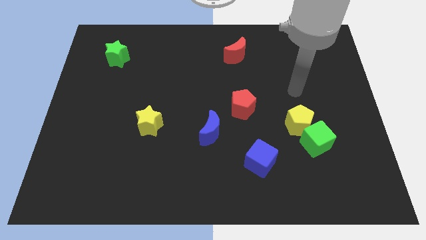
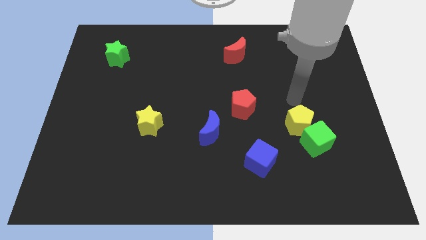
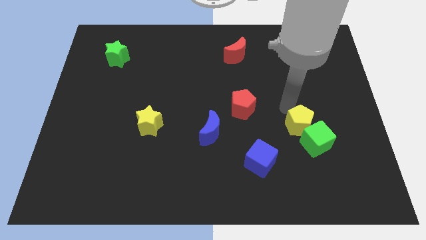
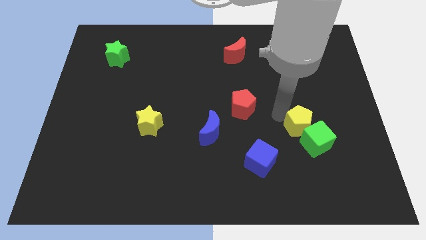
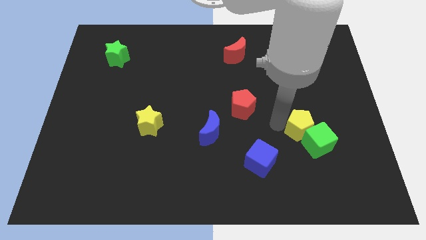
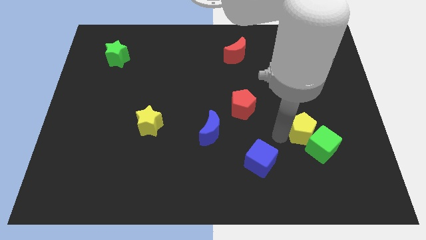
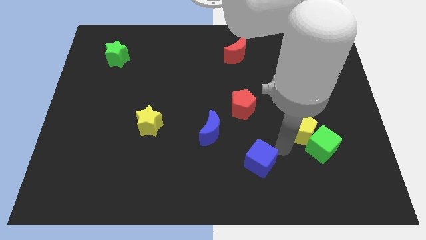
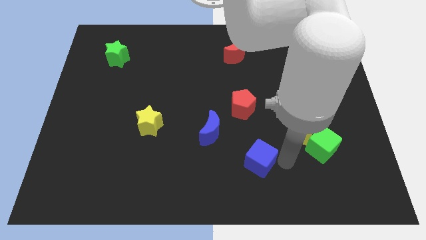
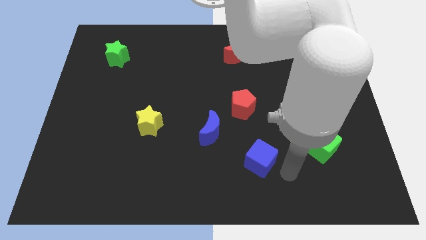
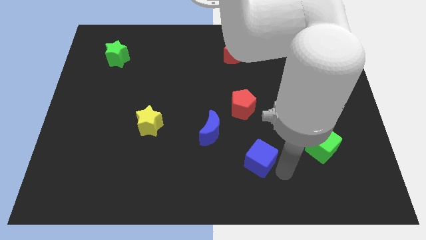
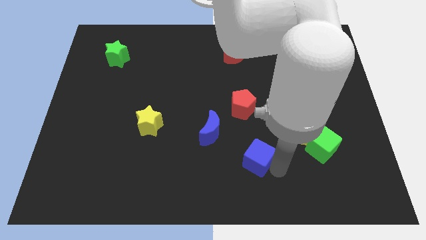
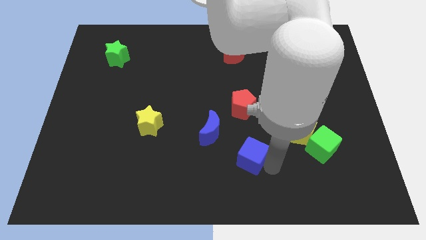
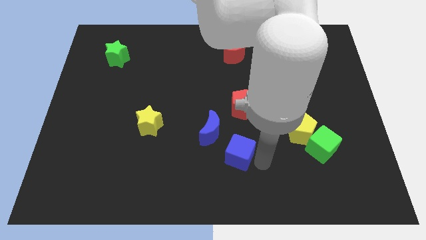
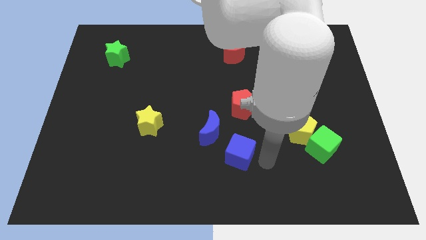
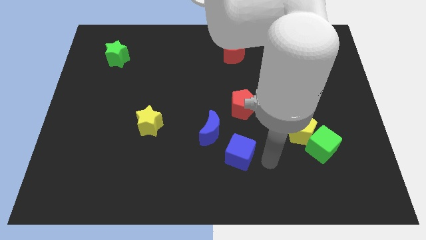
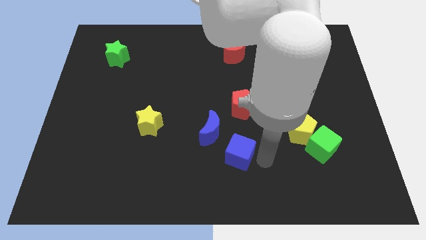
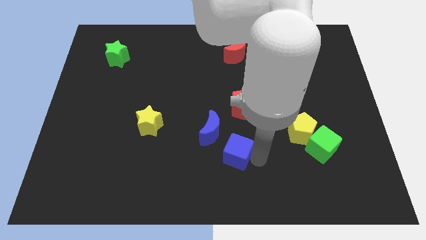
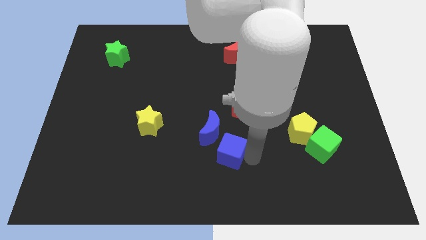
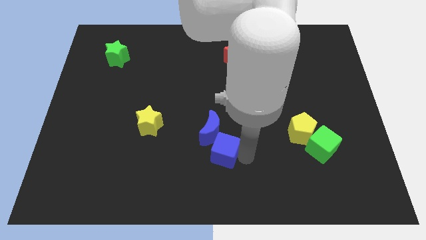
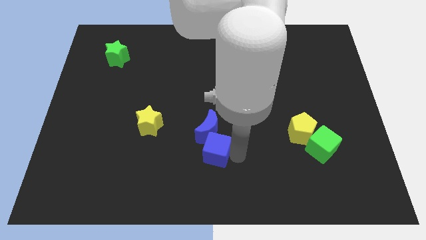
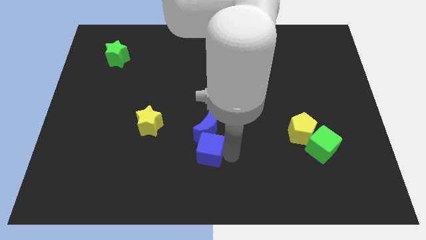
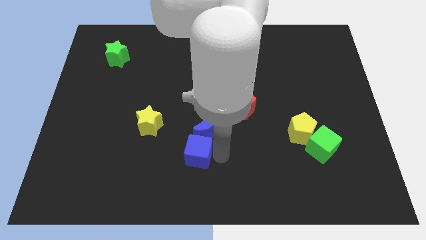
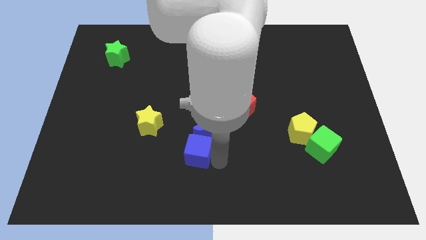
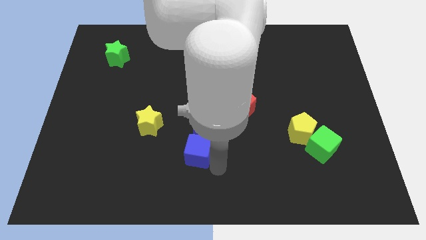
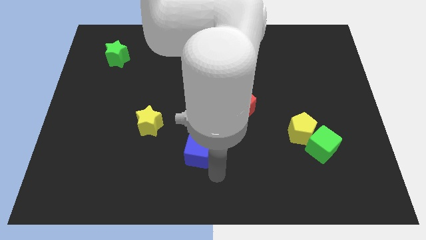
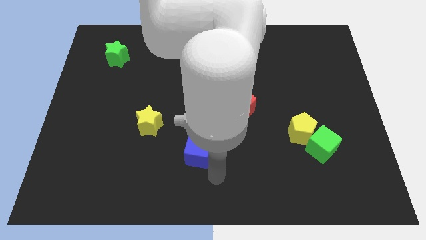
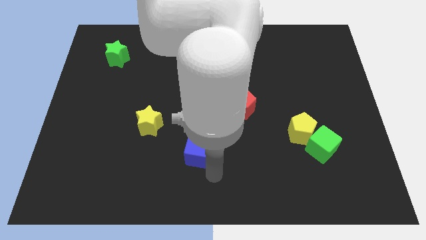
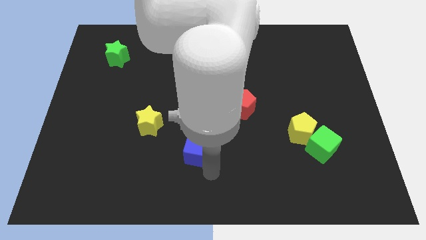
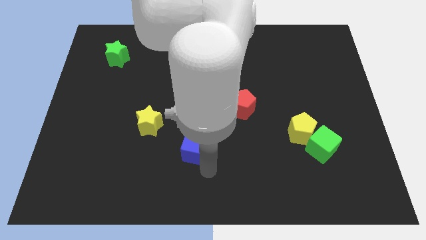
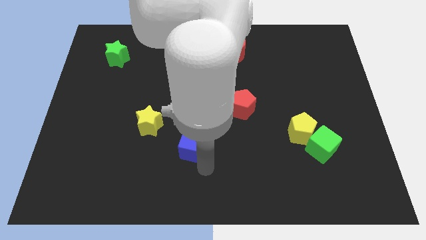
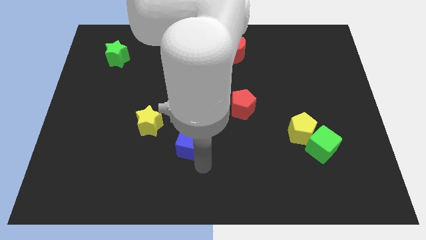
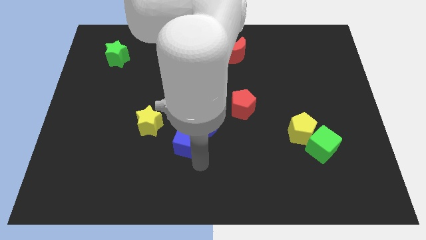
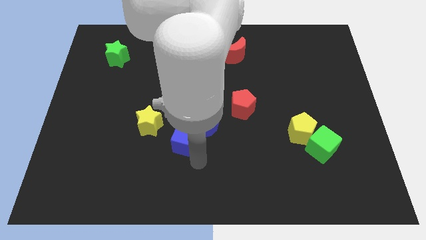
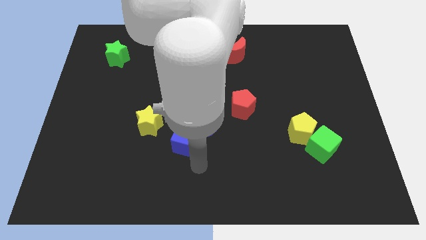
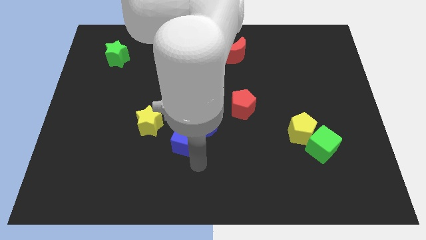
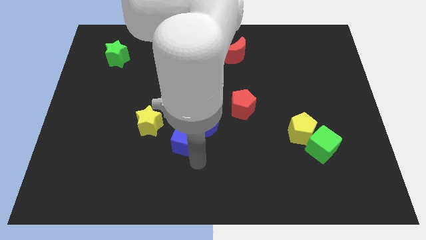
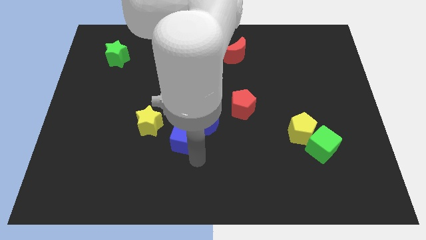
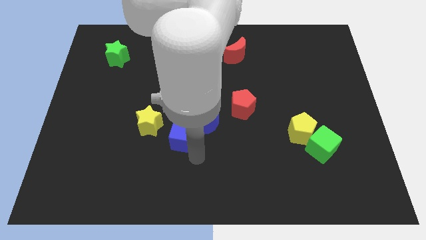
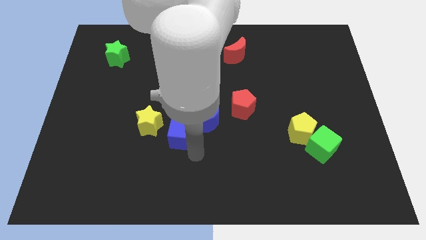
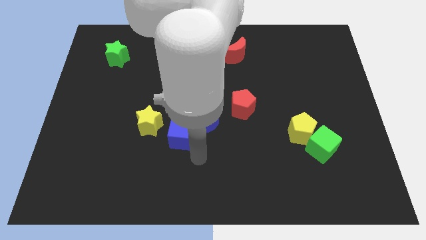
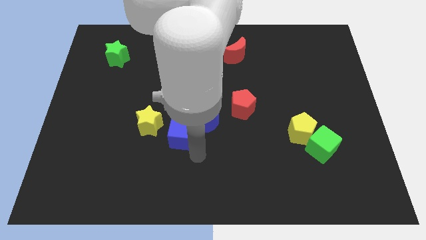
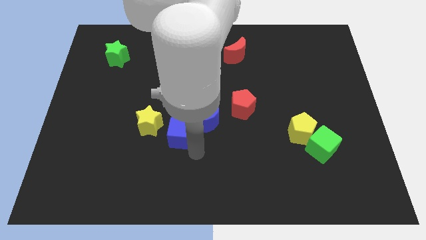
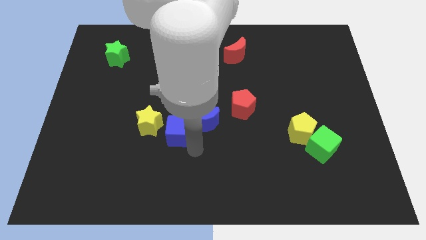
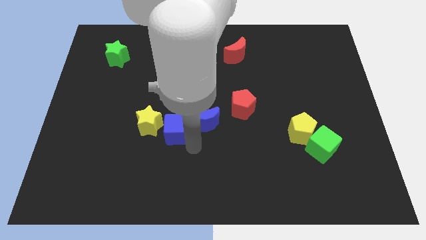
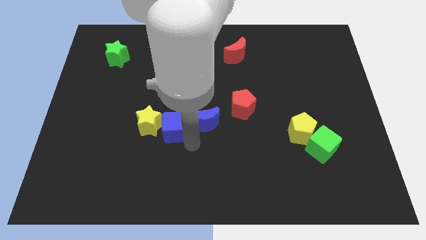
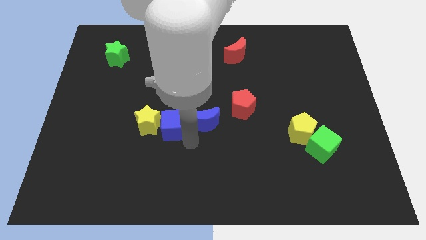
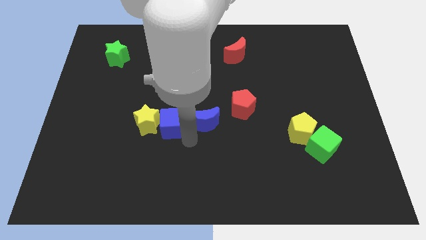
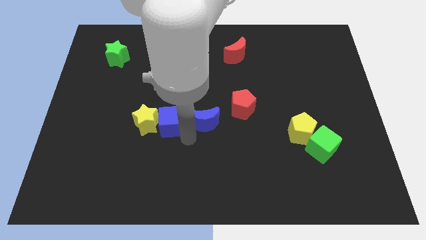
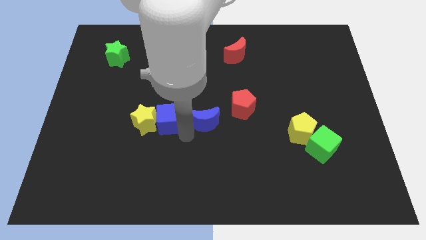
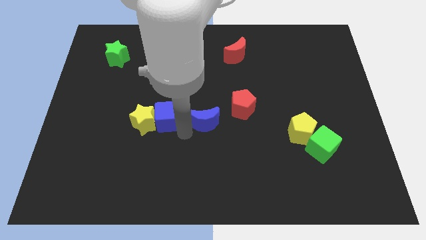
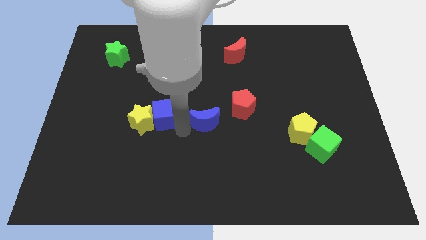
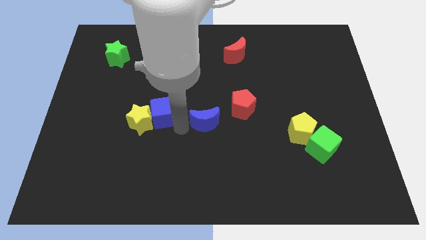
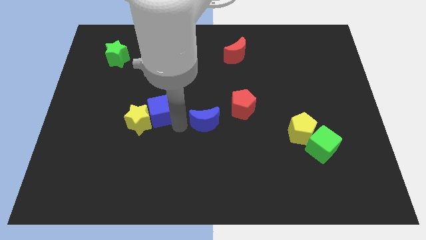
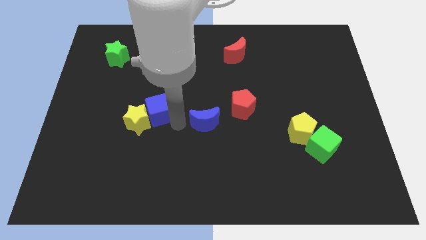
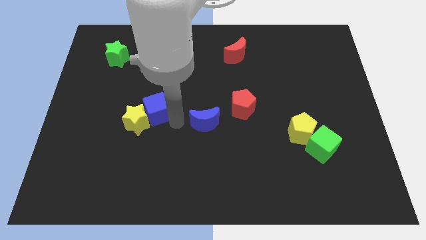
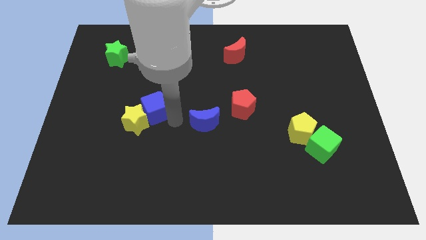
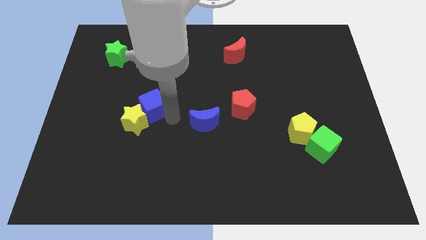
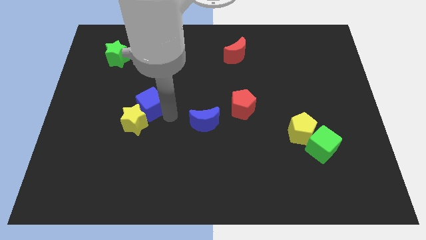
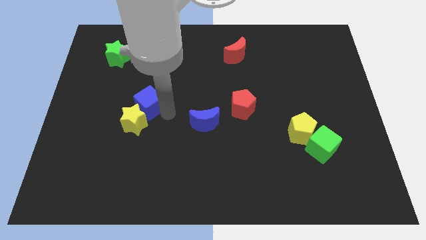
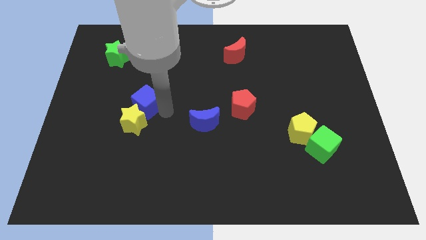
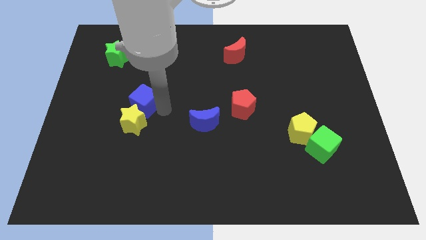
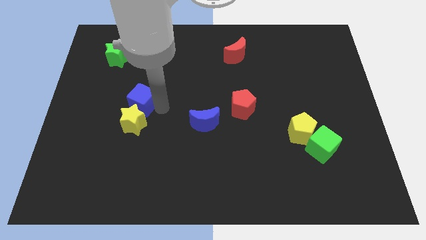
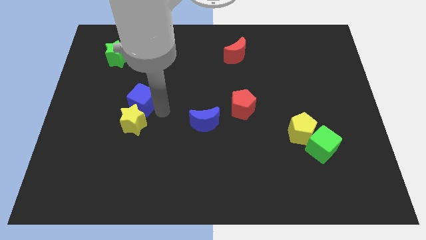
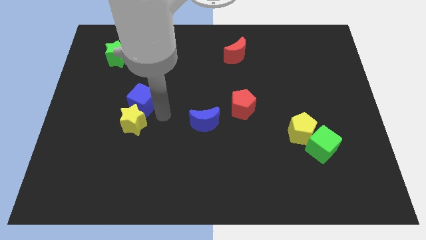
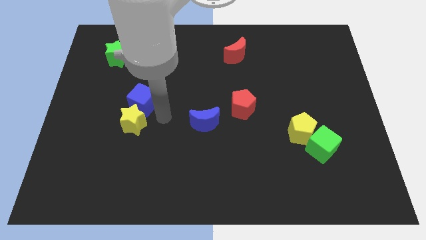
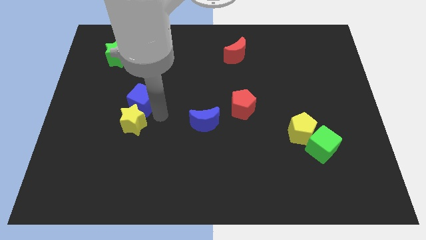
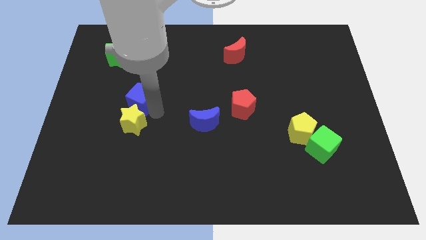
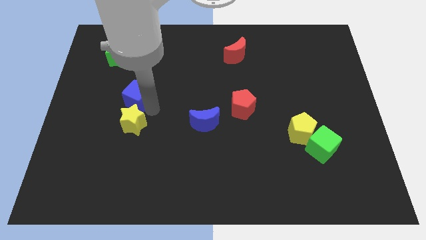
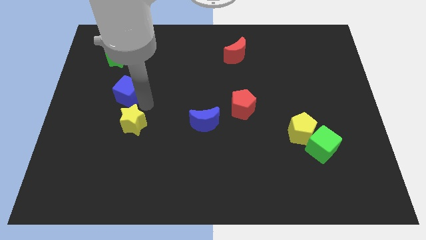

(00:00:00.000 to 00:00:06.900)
move the blue cube to the bottom side of the green star
